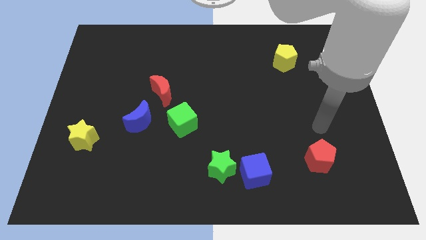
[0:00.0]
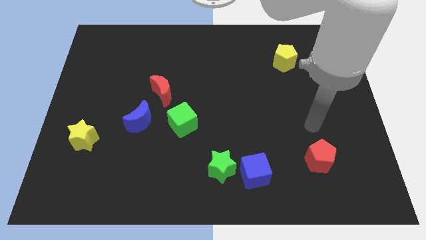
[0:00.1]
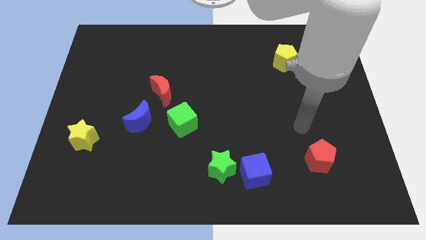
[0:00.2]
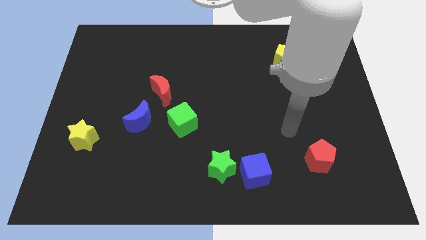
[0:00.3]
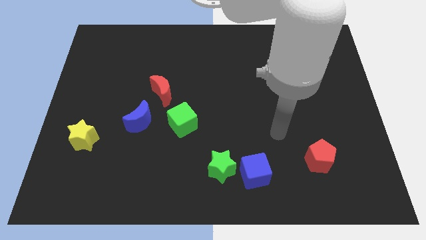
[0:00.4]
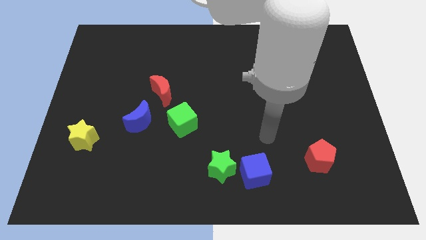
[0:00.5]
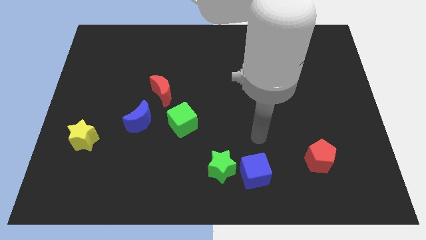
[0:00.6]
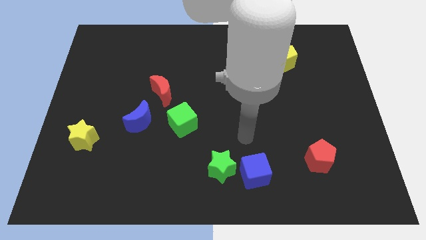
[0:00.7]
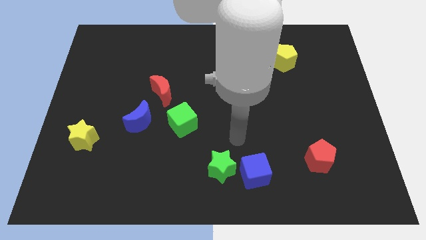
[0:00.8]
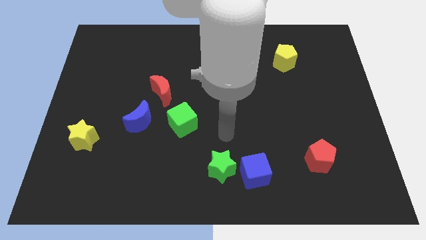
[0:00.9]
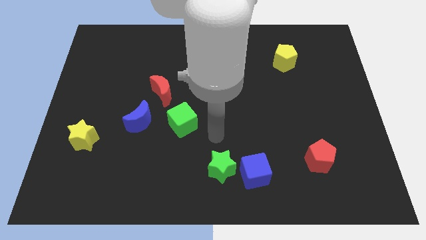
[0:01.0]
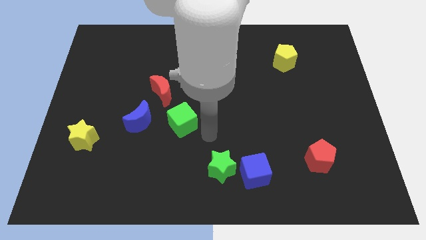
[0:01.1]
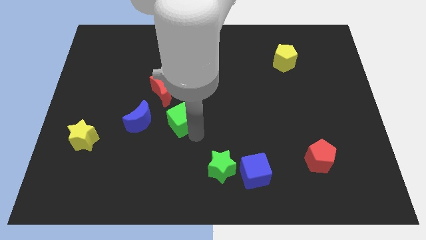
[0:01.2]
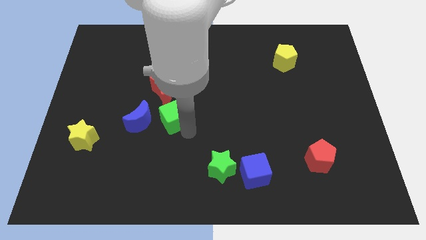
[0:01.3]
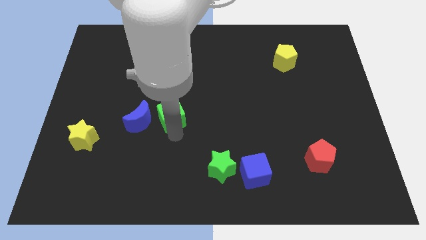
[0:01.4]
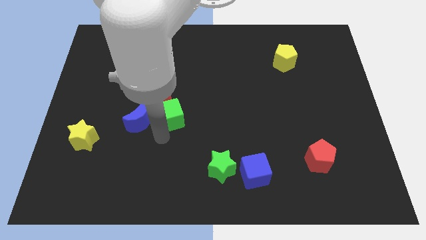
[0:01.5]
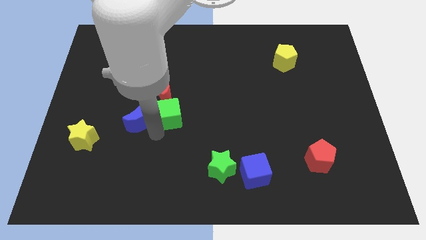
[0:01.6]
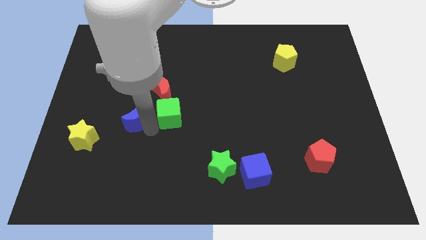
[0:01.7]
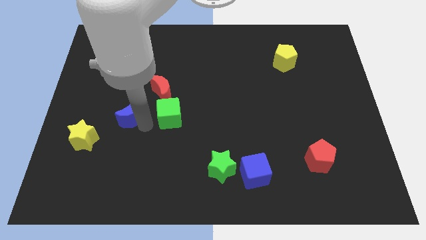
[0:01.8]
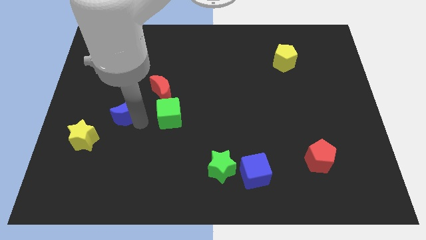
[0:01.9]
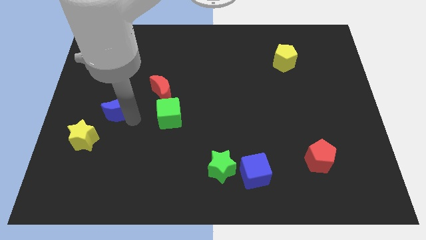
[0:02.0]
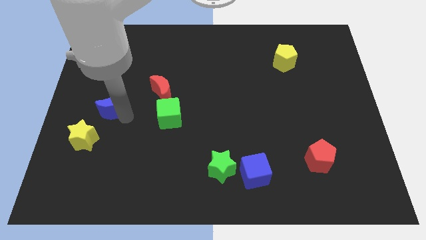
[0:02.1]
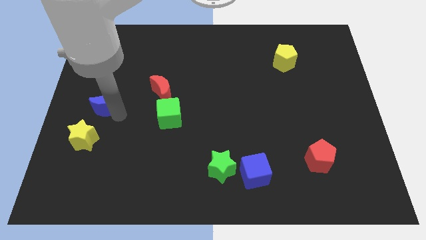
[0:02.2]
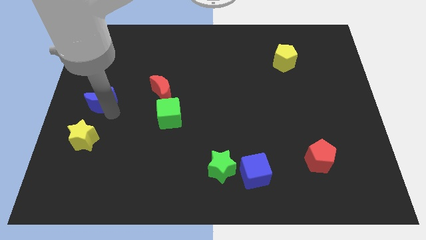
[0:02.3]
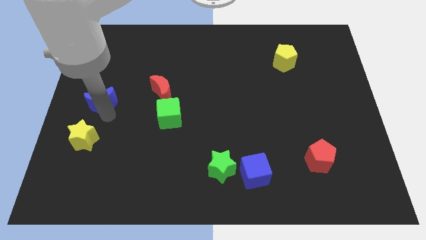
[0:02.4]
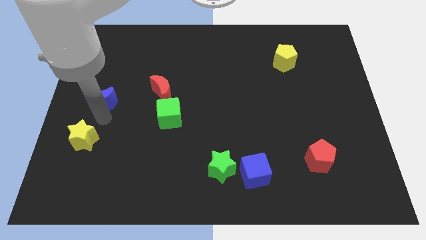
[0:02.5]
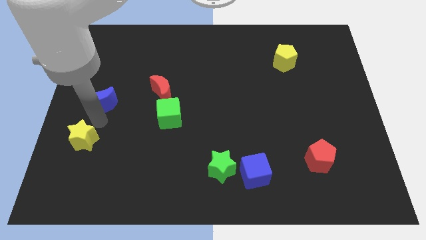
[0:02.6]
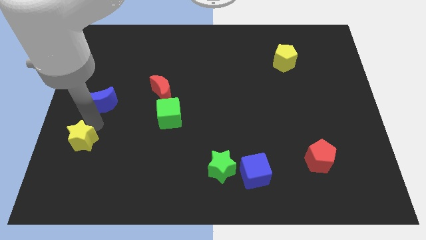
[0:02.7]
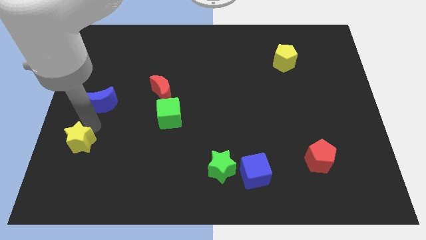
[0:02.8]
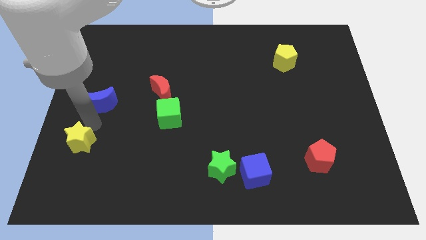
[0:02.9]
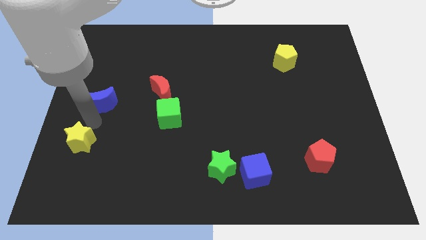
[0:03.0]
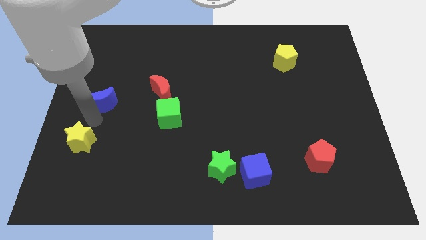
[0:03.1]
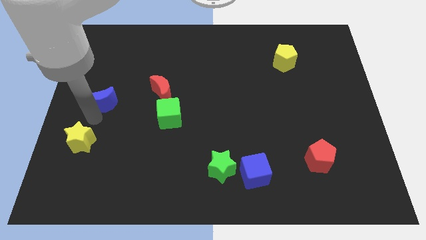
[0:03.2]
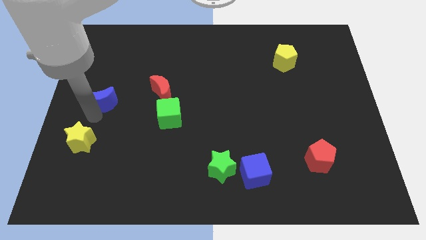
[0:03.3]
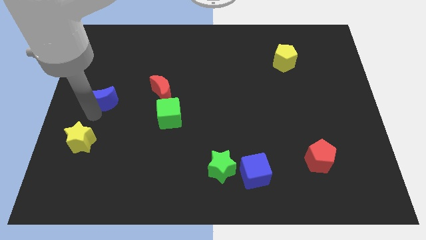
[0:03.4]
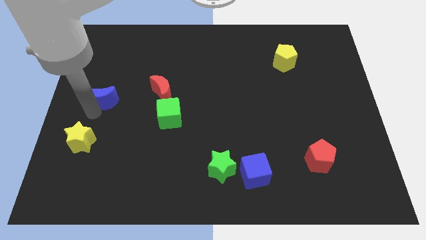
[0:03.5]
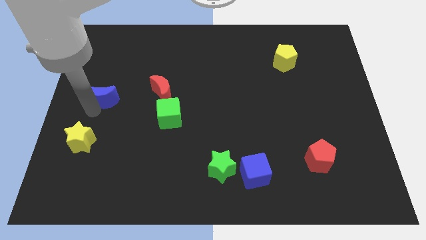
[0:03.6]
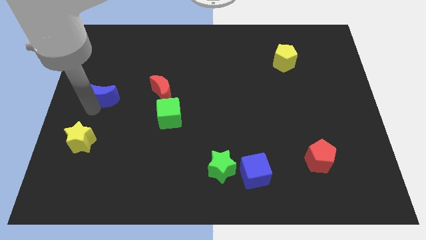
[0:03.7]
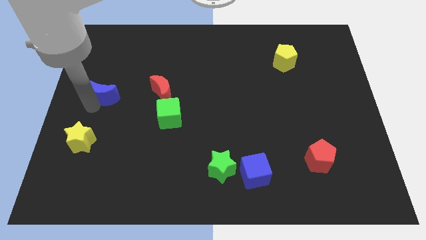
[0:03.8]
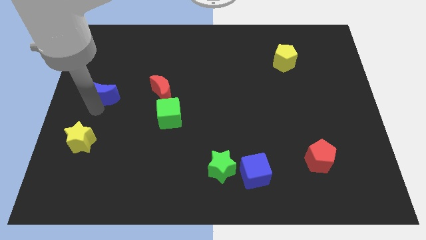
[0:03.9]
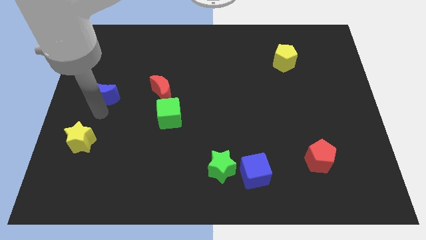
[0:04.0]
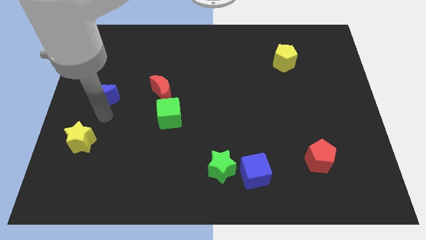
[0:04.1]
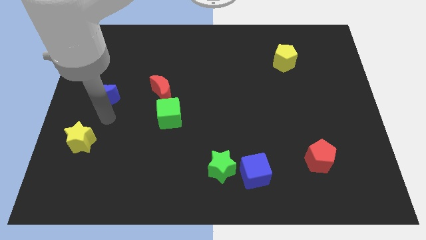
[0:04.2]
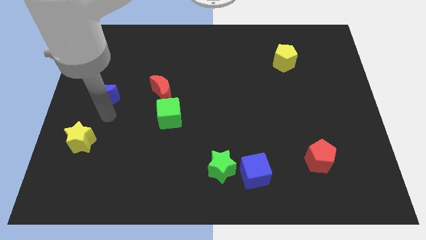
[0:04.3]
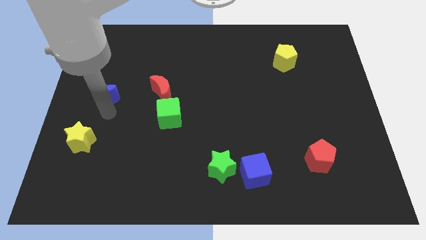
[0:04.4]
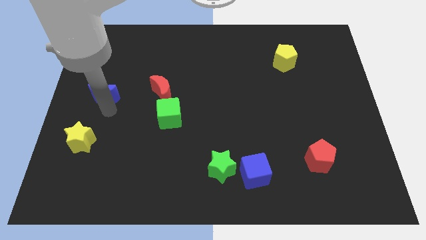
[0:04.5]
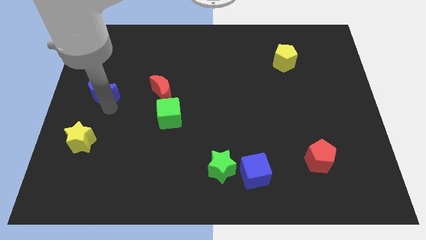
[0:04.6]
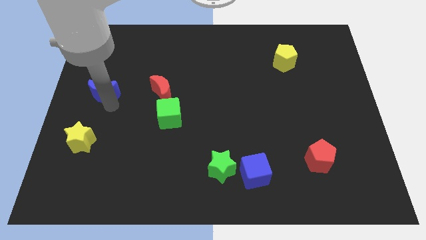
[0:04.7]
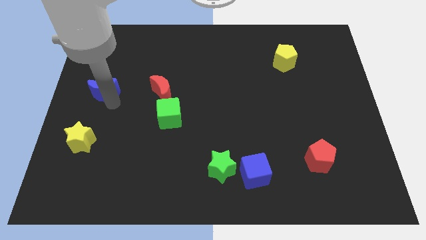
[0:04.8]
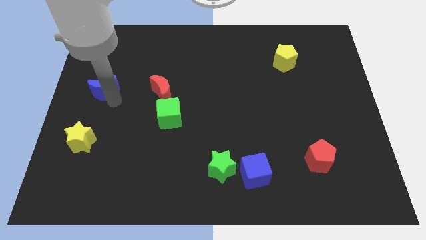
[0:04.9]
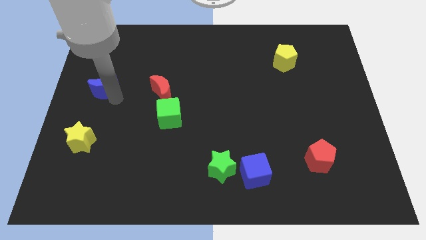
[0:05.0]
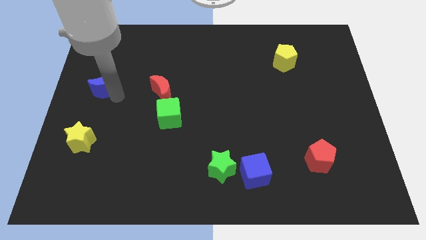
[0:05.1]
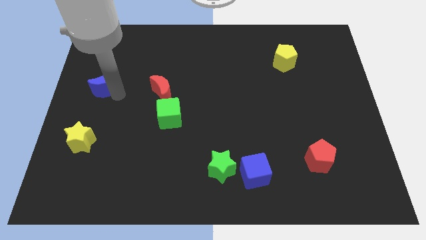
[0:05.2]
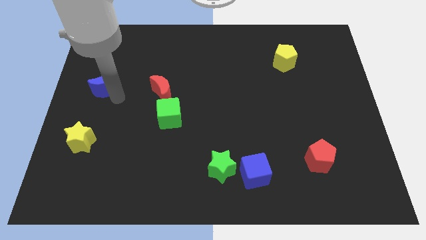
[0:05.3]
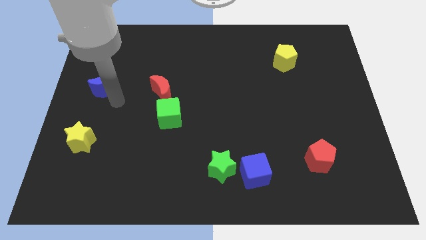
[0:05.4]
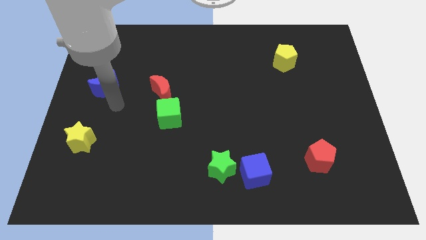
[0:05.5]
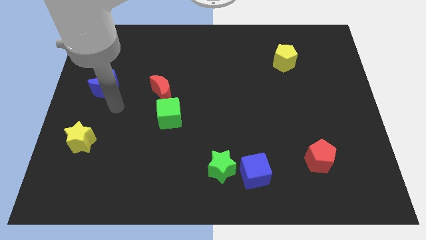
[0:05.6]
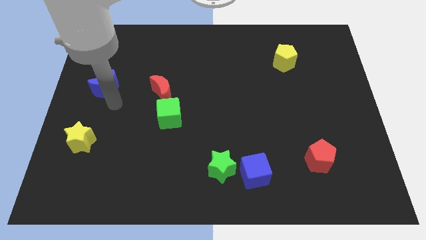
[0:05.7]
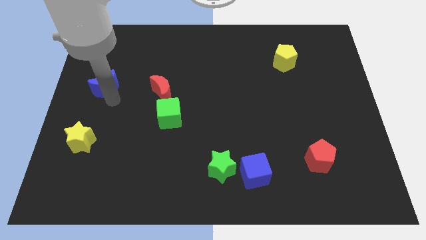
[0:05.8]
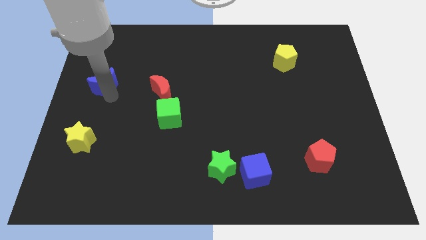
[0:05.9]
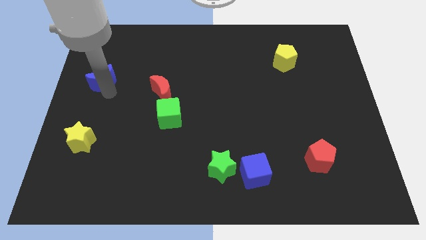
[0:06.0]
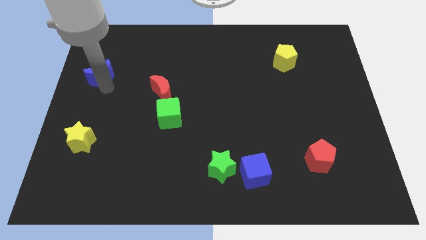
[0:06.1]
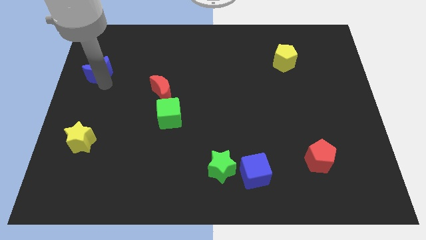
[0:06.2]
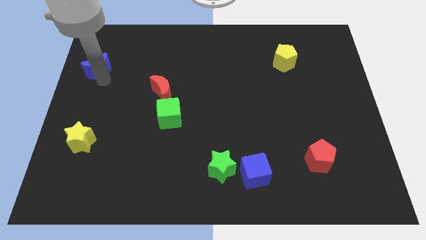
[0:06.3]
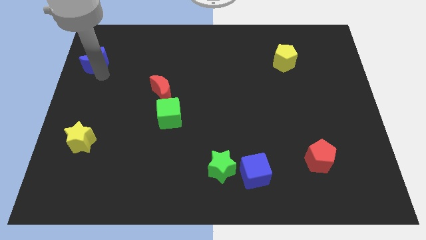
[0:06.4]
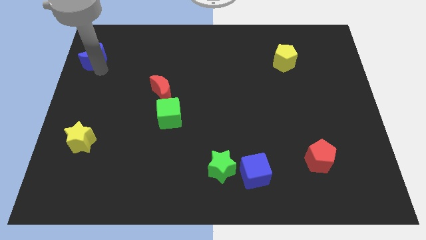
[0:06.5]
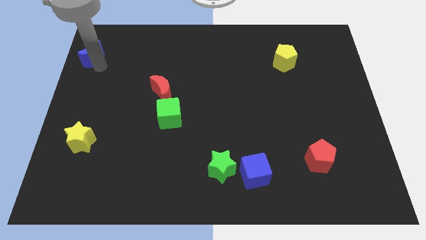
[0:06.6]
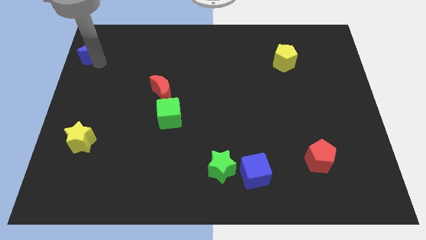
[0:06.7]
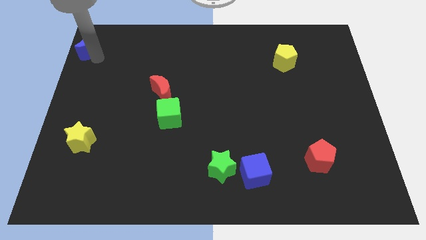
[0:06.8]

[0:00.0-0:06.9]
put the blue moon to the top left
